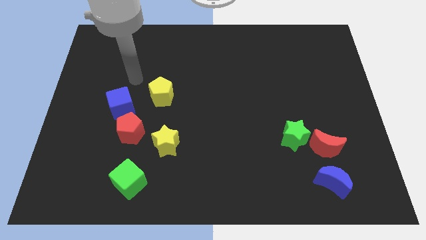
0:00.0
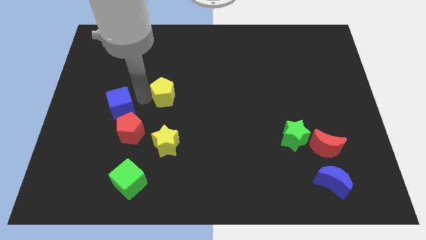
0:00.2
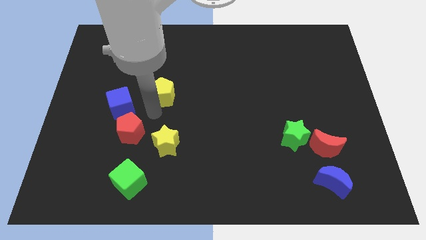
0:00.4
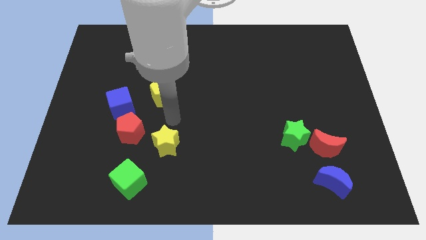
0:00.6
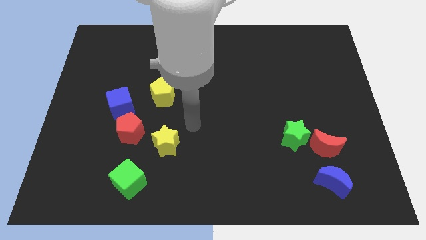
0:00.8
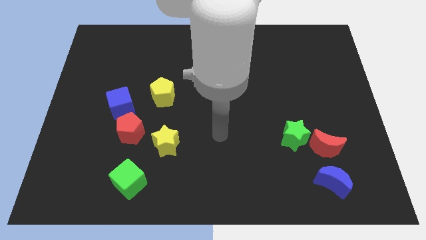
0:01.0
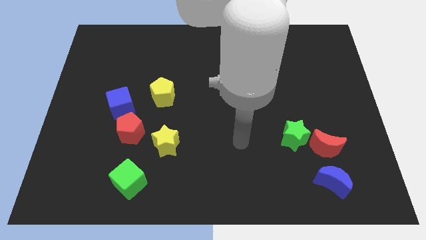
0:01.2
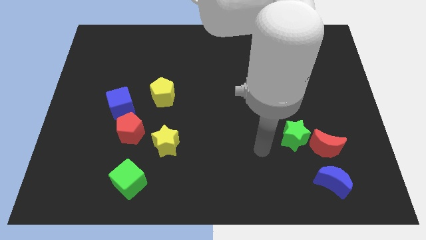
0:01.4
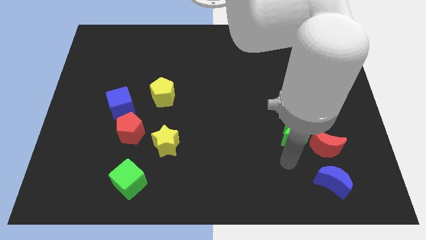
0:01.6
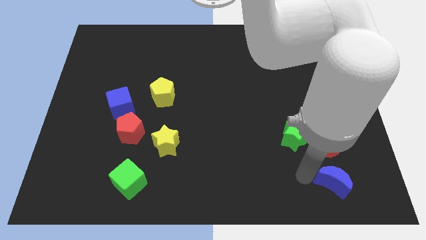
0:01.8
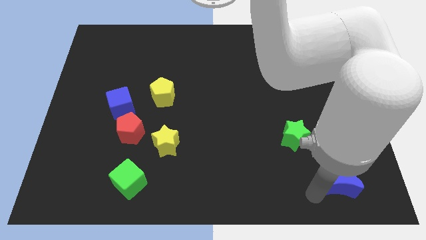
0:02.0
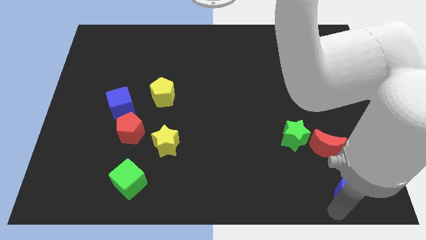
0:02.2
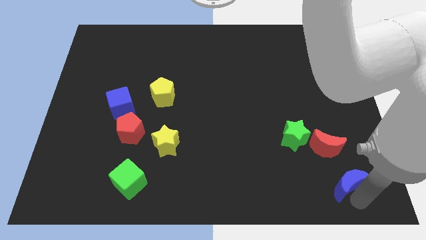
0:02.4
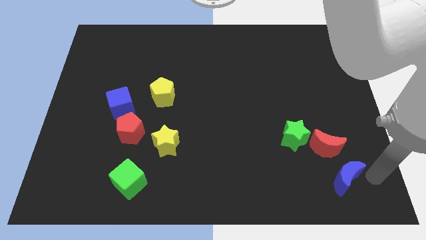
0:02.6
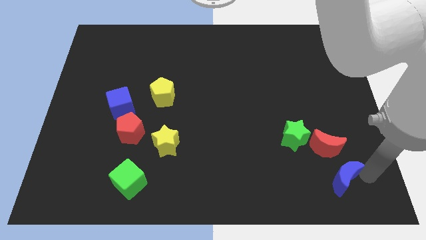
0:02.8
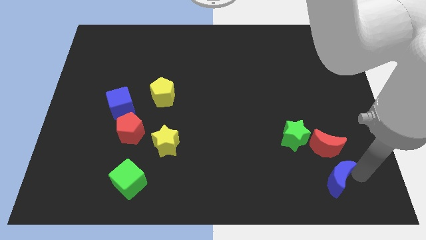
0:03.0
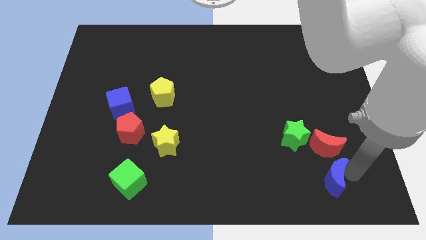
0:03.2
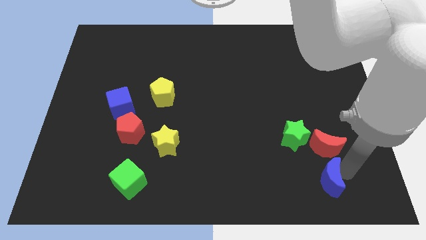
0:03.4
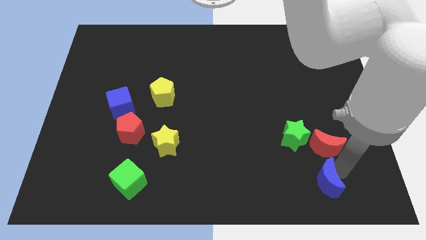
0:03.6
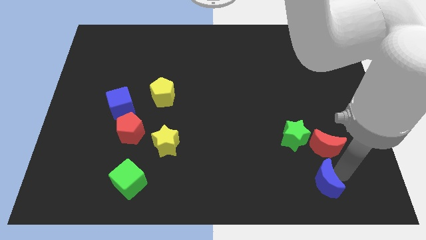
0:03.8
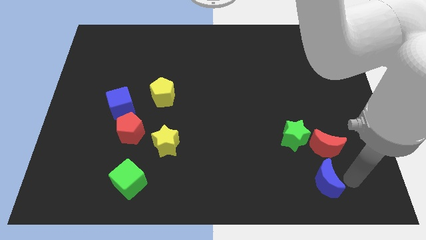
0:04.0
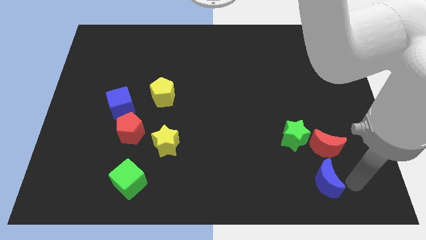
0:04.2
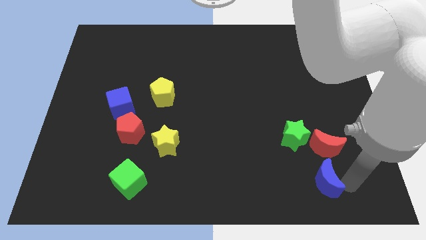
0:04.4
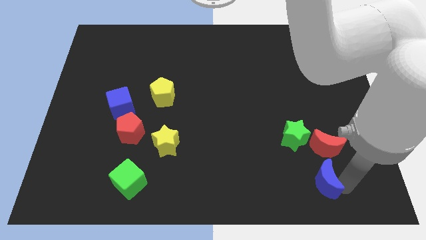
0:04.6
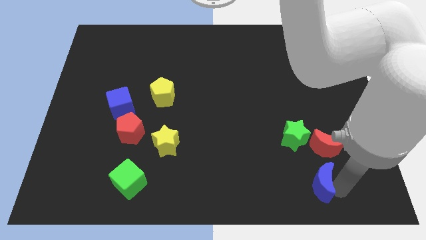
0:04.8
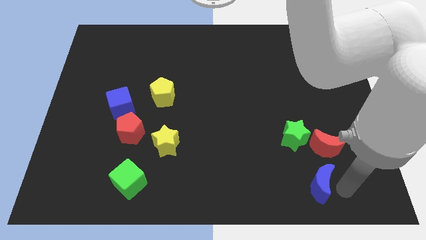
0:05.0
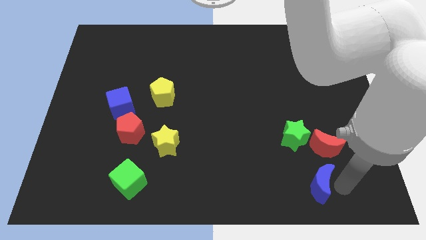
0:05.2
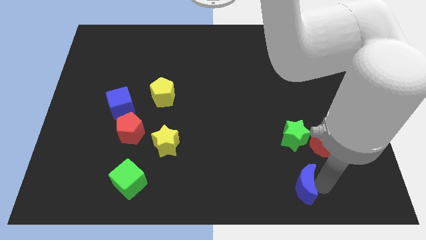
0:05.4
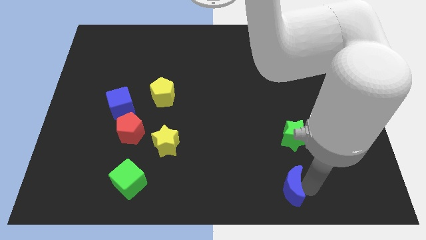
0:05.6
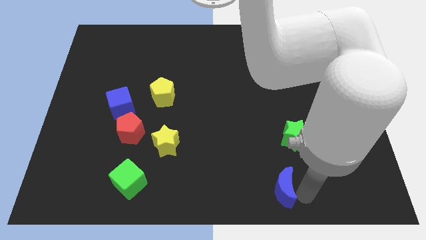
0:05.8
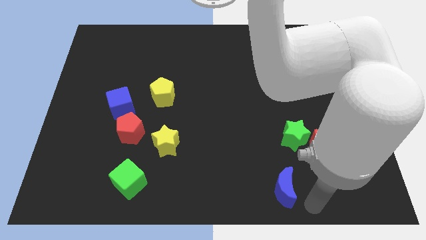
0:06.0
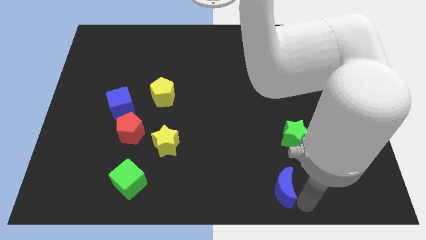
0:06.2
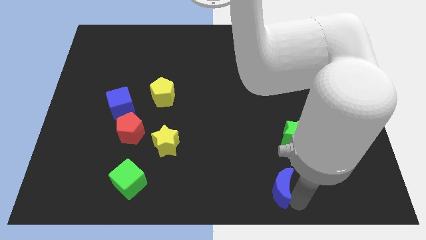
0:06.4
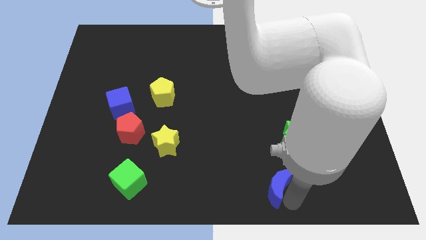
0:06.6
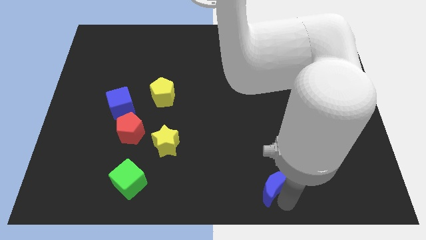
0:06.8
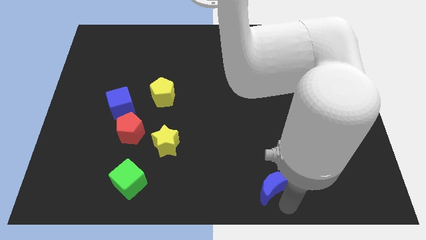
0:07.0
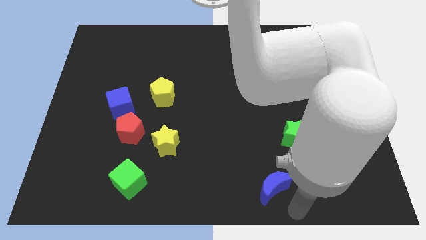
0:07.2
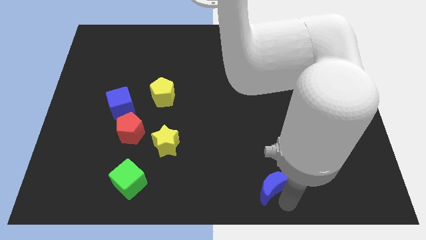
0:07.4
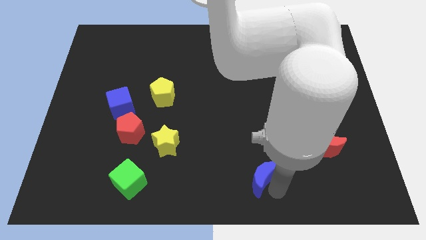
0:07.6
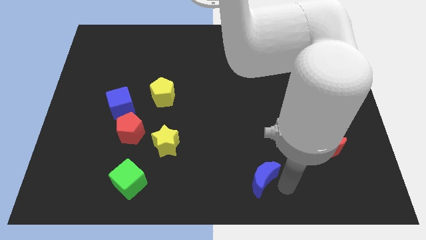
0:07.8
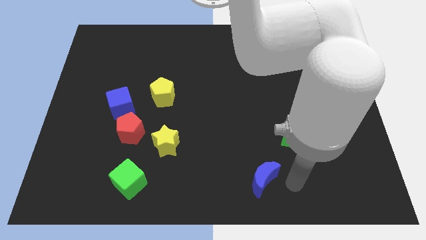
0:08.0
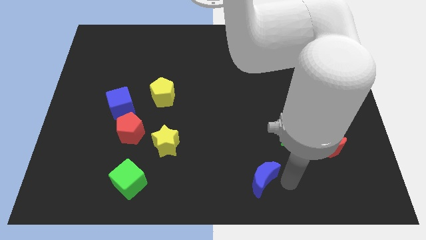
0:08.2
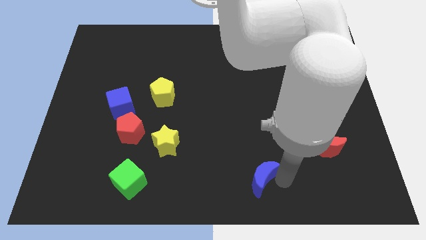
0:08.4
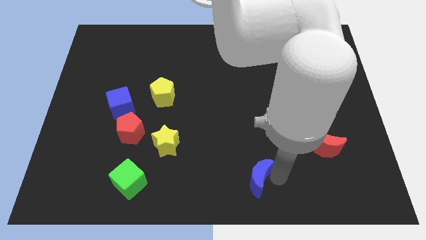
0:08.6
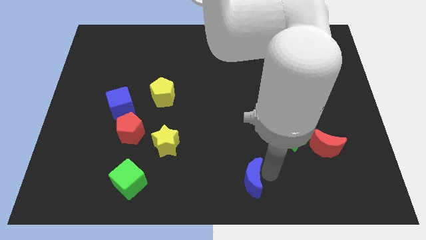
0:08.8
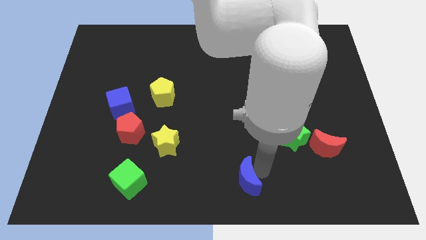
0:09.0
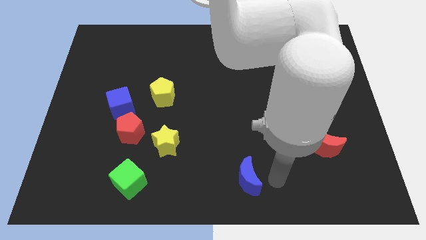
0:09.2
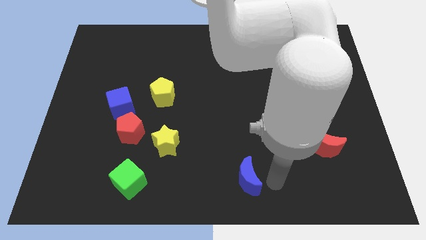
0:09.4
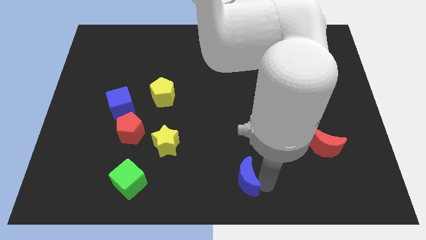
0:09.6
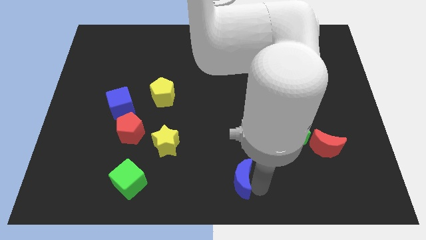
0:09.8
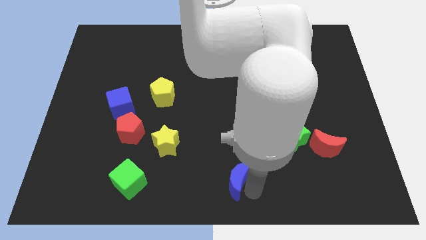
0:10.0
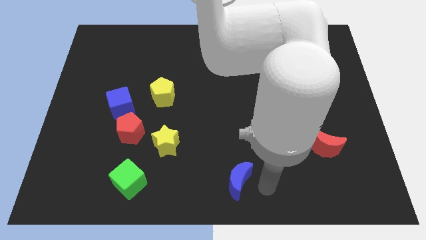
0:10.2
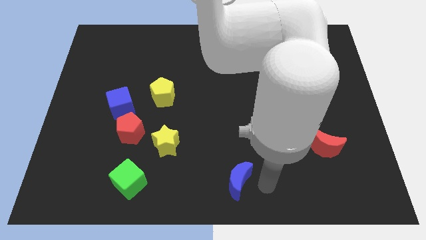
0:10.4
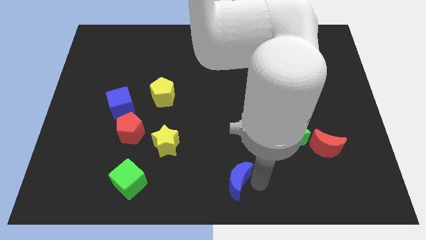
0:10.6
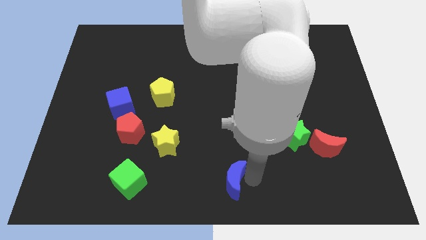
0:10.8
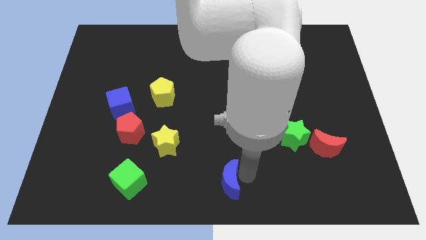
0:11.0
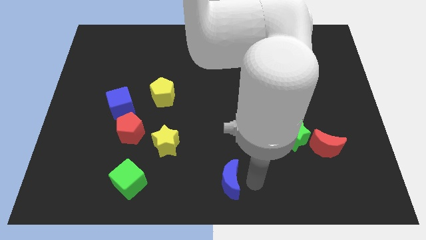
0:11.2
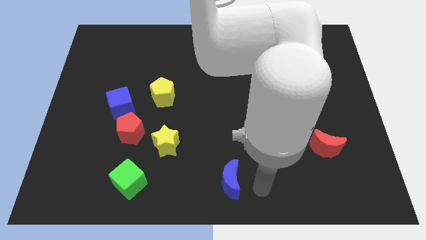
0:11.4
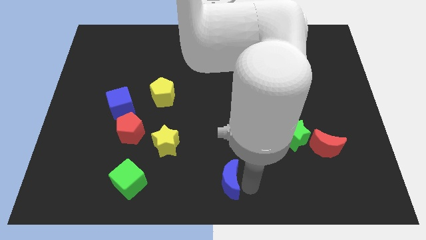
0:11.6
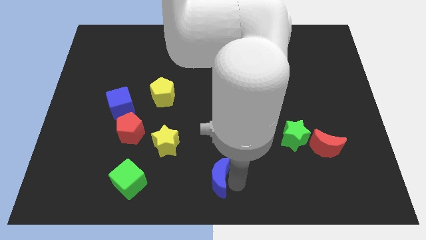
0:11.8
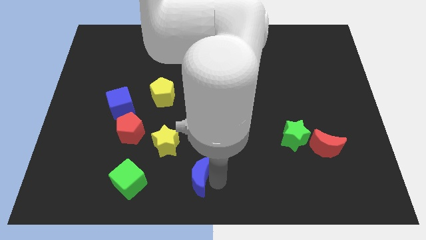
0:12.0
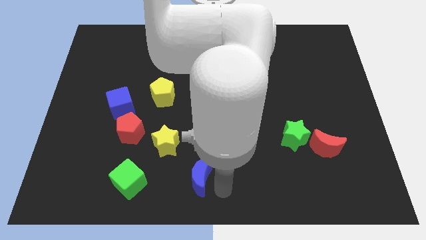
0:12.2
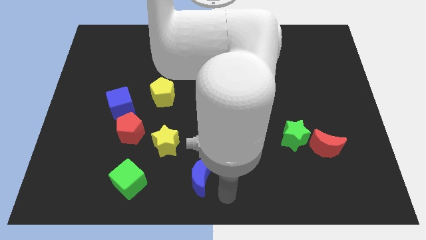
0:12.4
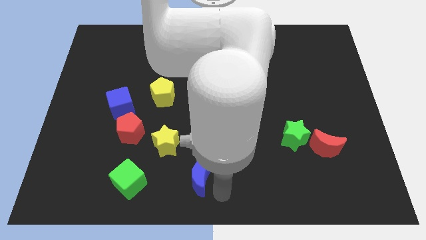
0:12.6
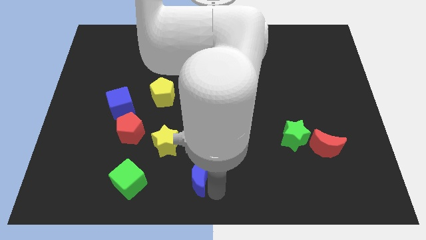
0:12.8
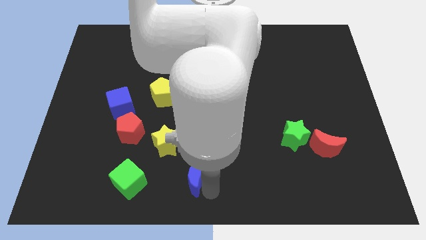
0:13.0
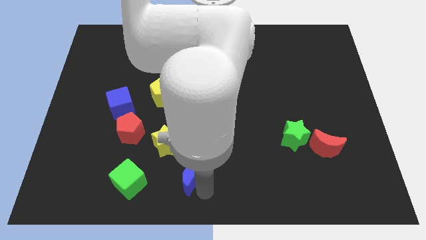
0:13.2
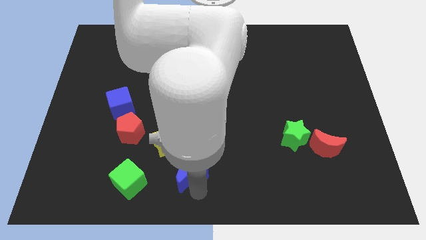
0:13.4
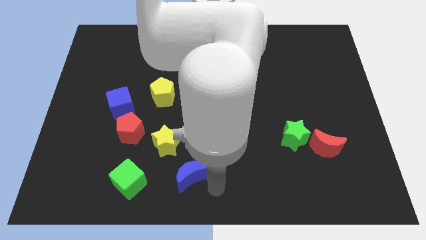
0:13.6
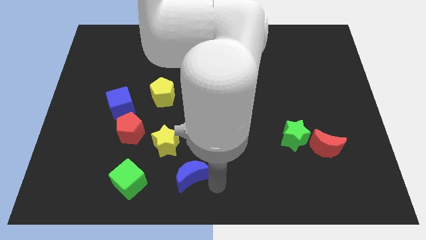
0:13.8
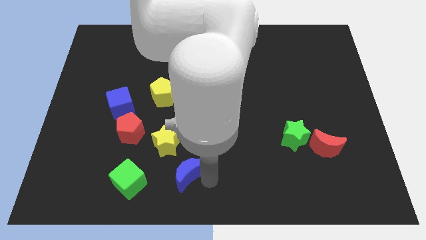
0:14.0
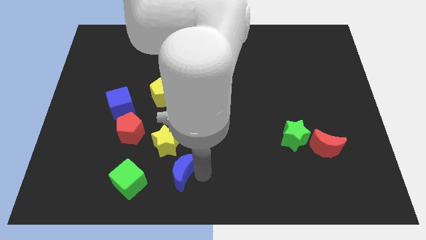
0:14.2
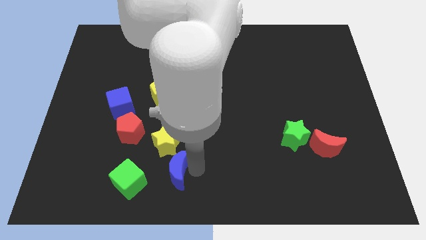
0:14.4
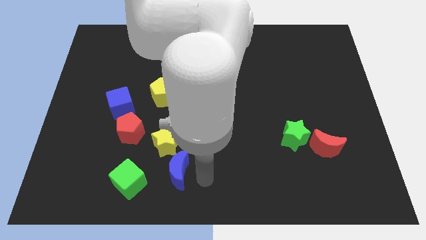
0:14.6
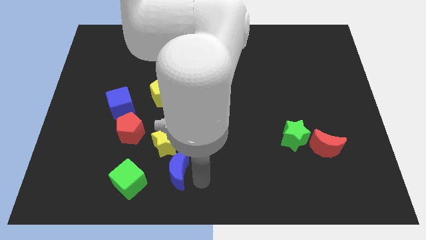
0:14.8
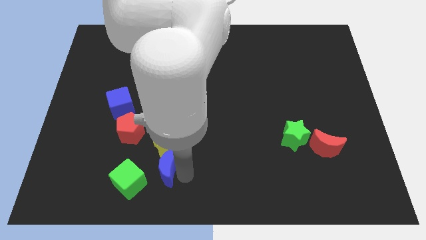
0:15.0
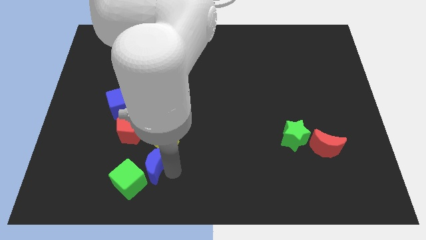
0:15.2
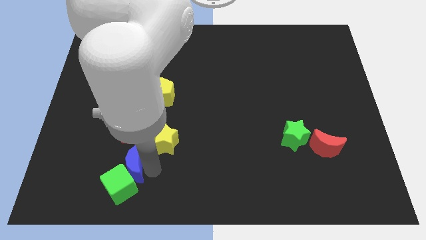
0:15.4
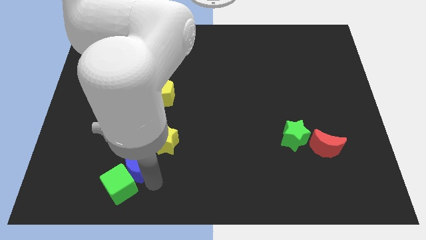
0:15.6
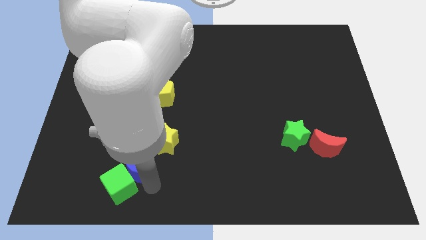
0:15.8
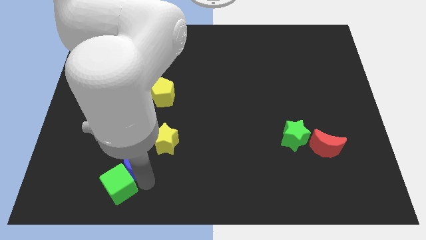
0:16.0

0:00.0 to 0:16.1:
slide the blue moon to the left side of the yellow star

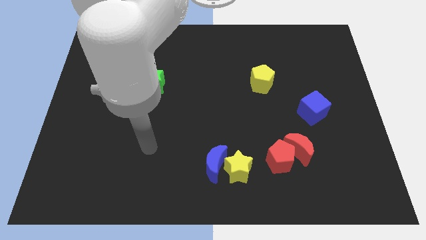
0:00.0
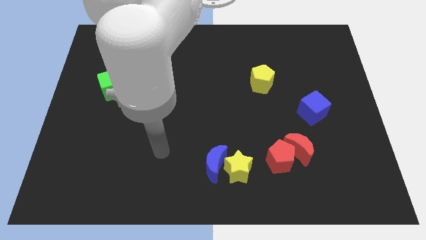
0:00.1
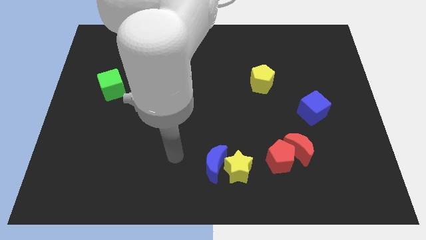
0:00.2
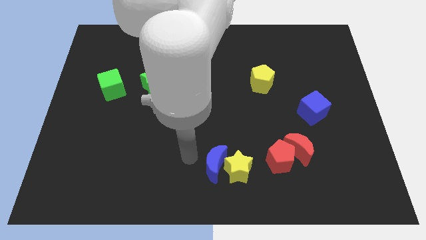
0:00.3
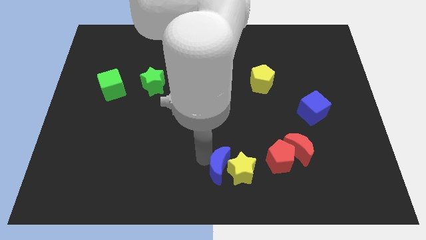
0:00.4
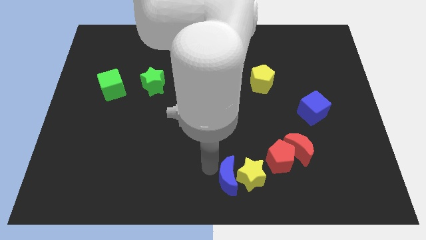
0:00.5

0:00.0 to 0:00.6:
push the yellow star to the bottom left of the red moon
